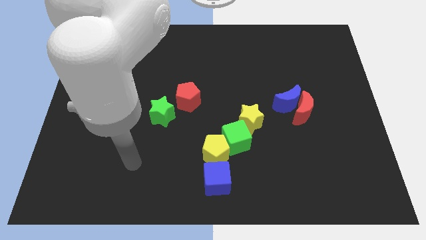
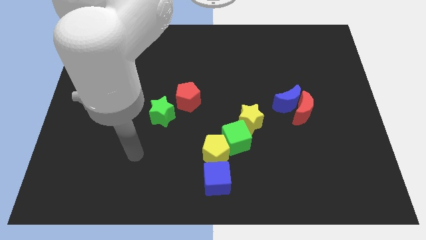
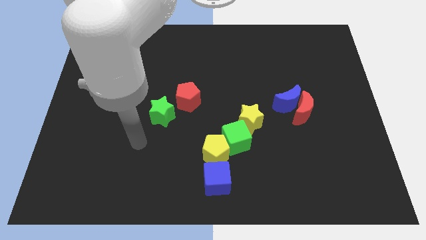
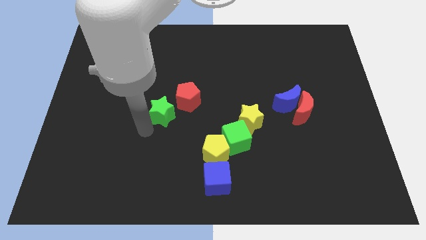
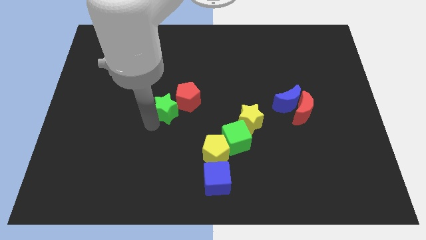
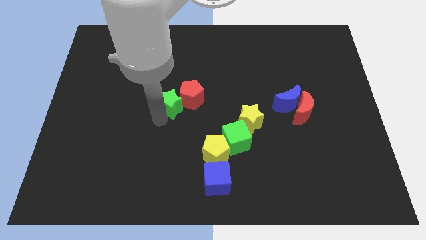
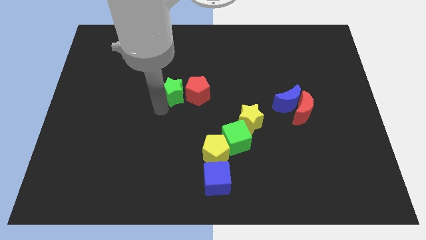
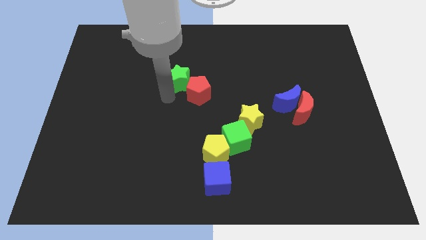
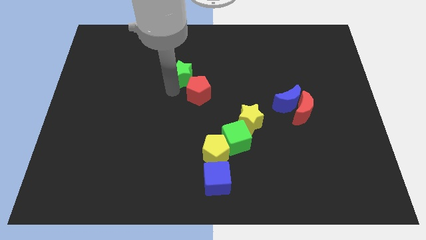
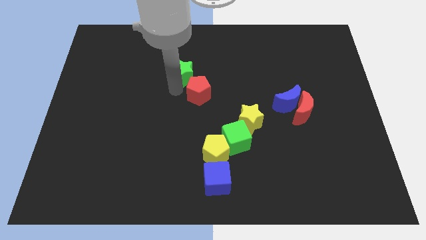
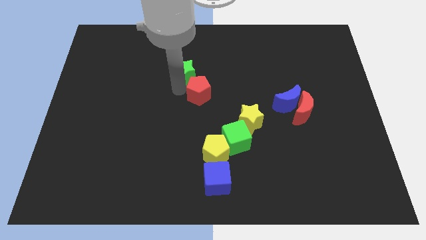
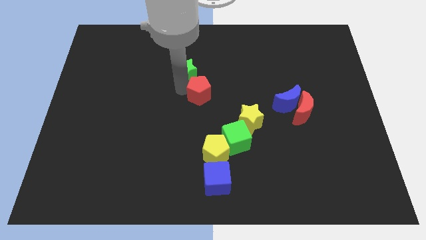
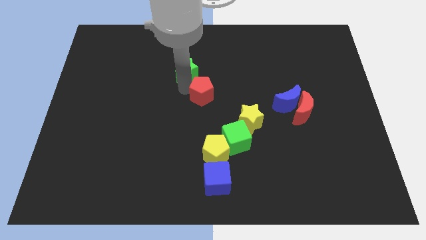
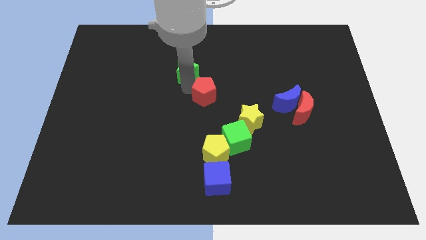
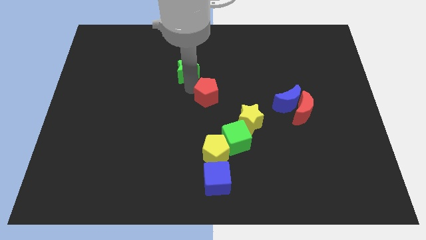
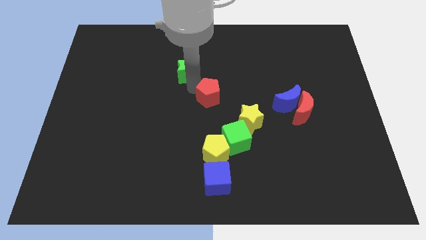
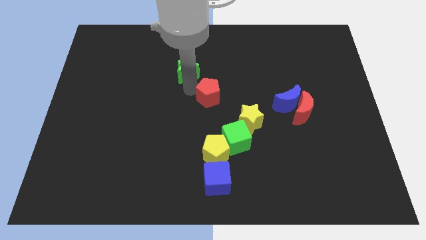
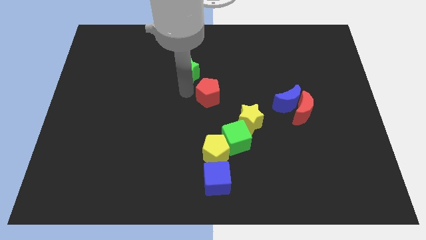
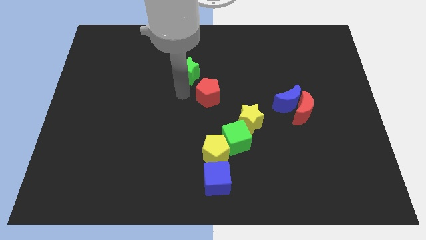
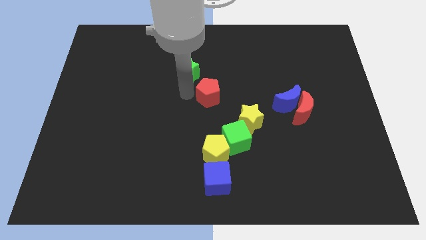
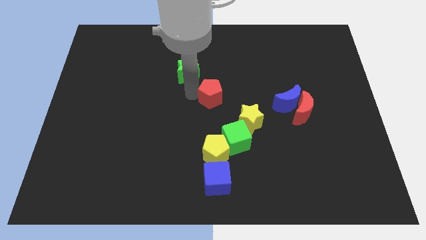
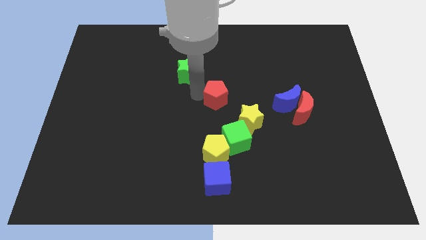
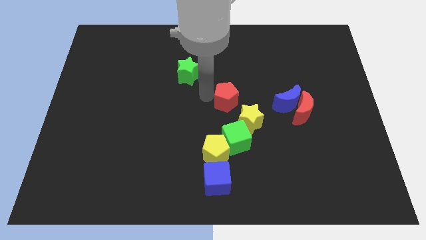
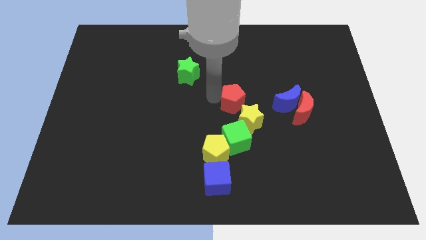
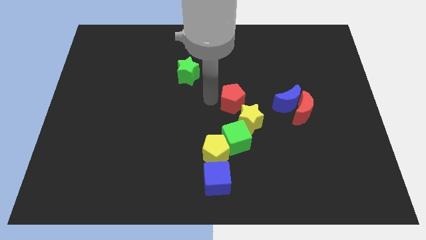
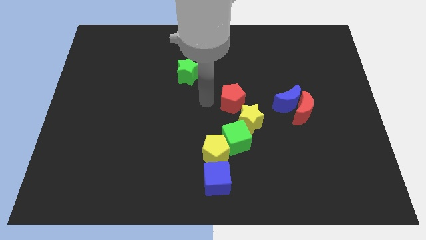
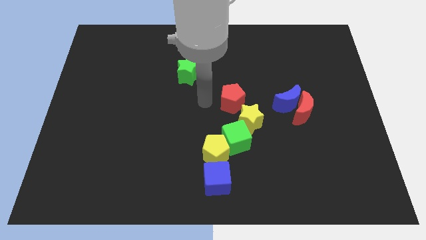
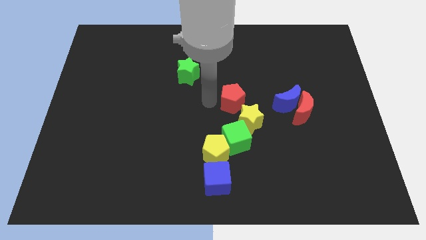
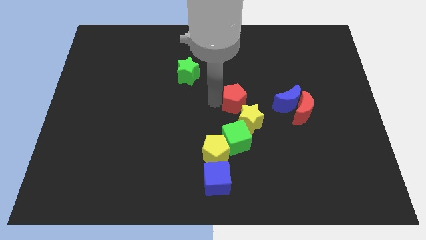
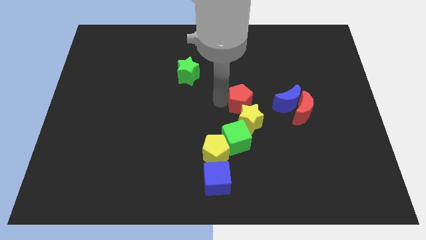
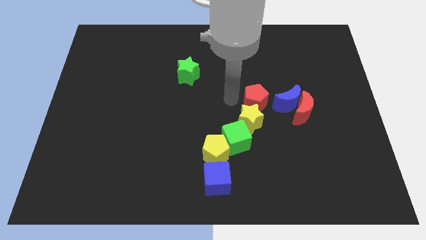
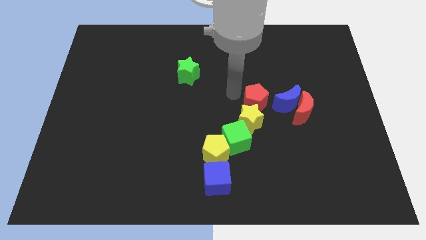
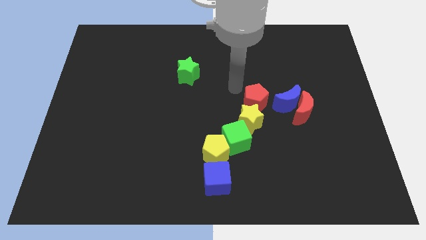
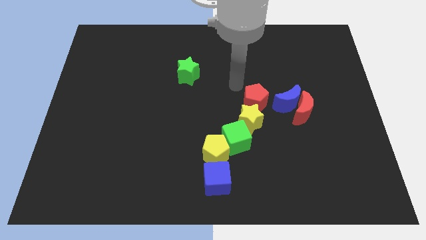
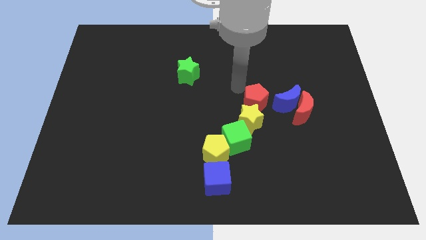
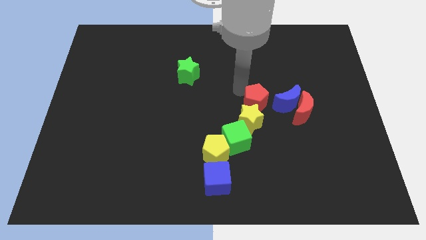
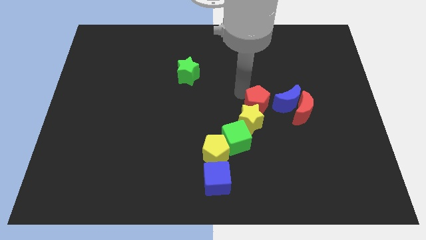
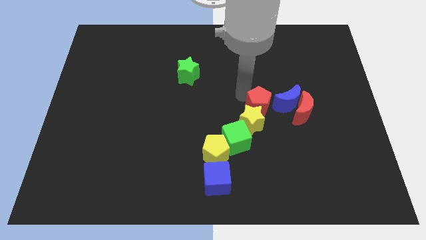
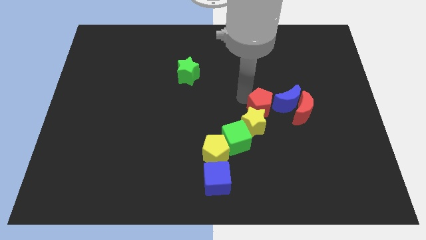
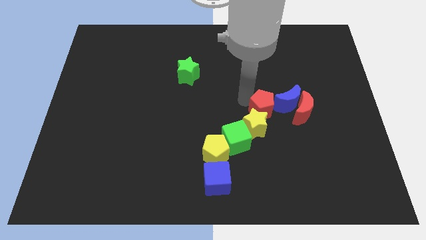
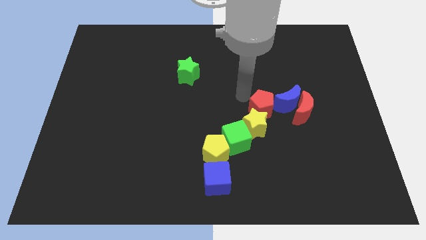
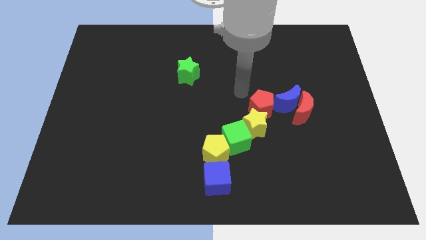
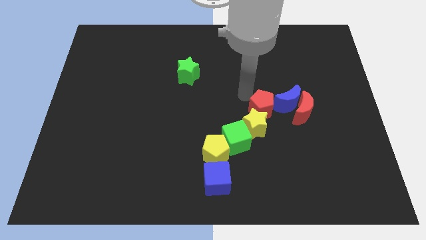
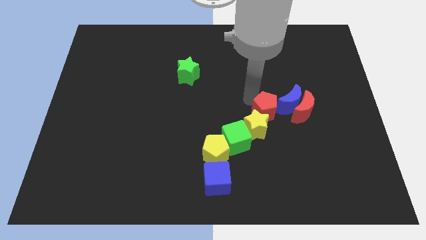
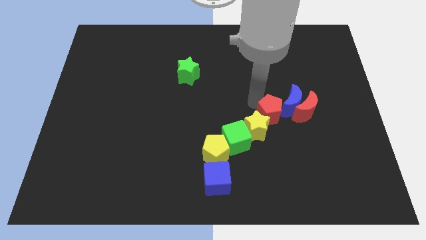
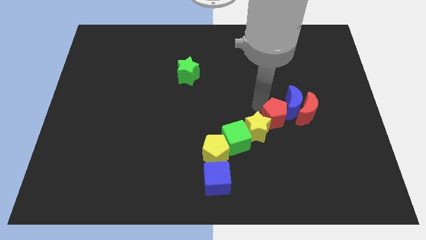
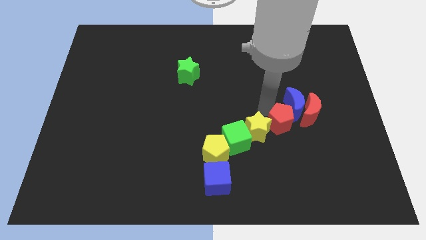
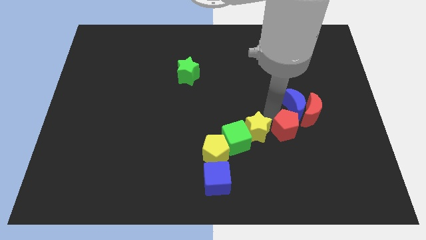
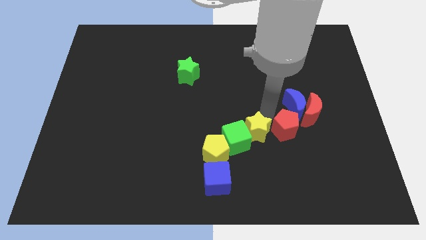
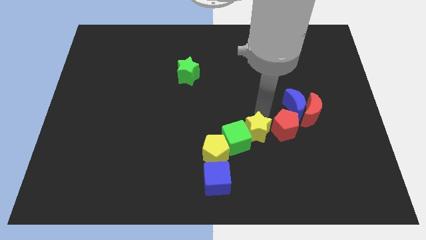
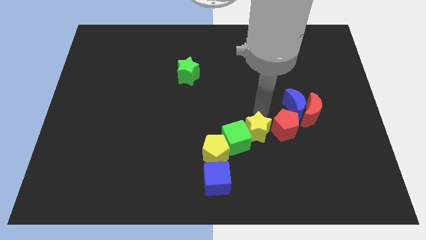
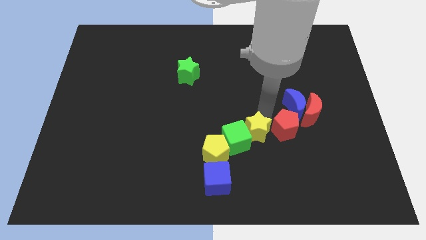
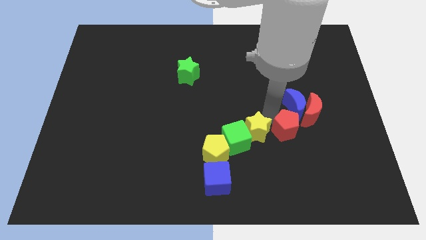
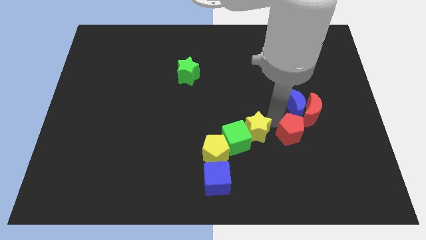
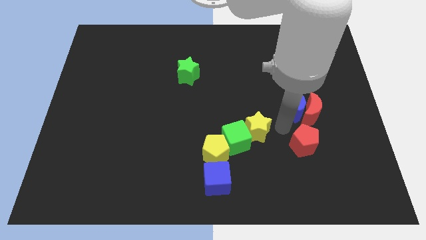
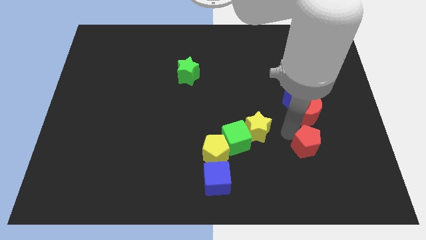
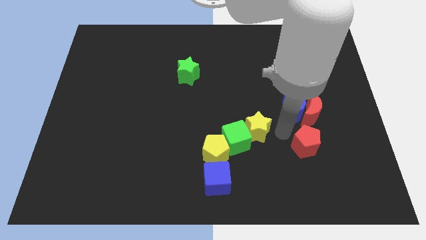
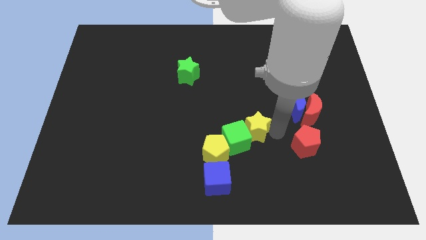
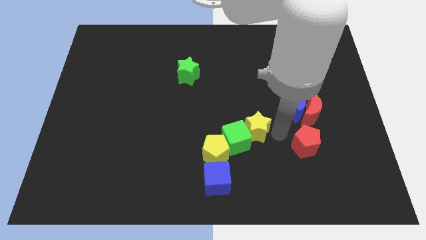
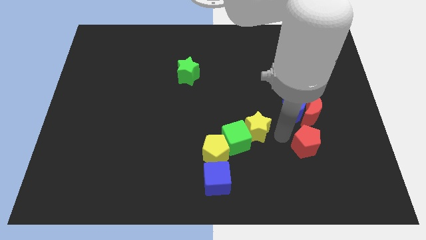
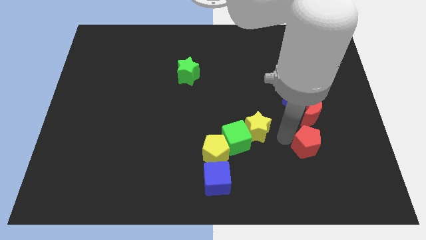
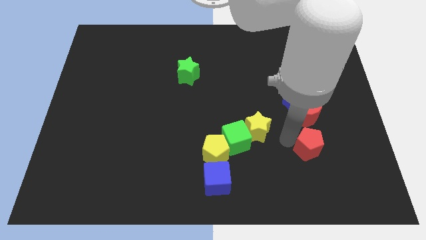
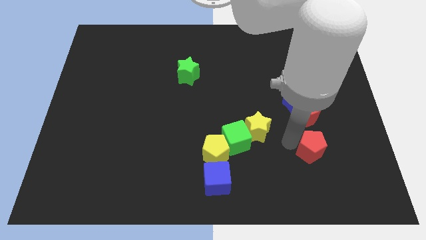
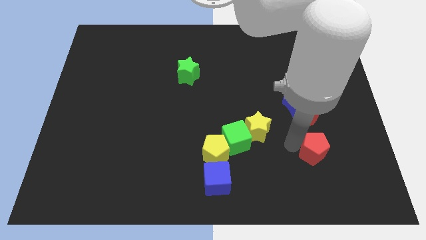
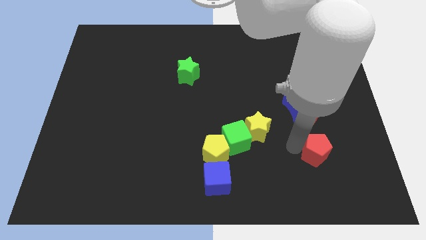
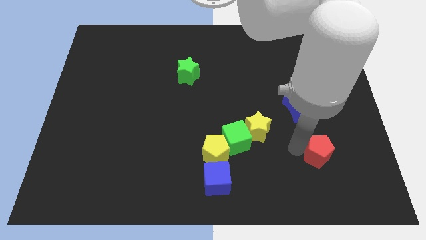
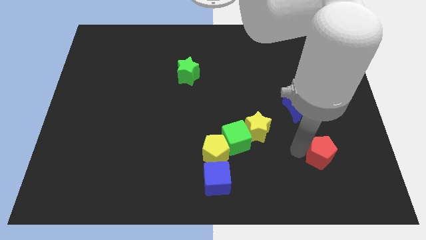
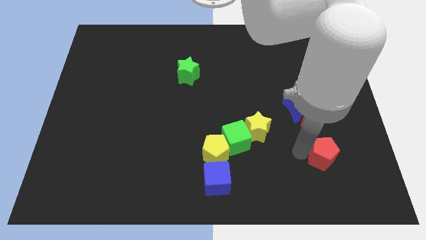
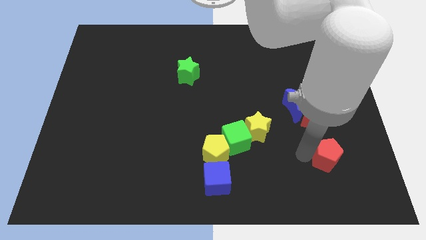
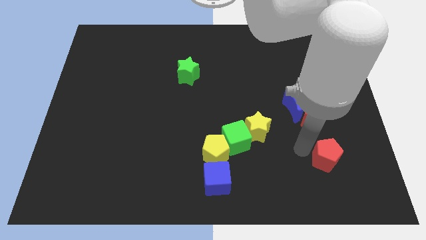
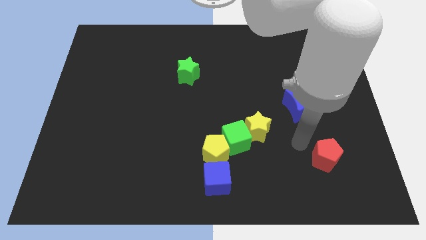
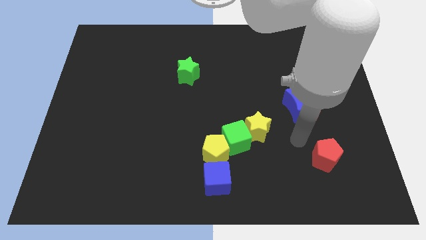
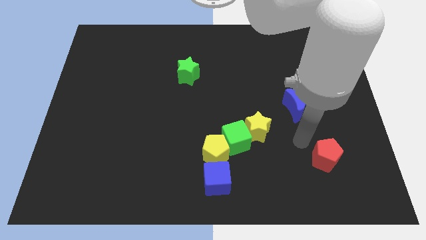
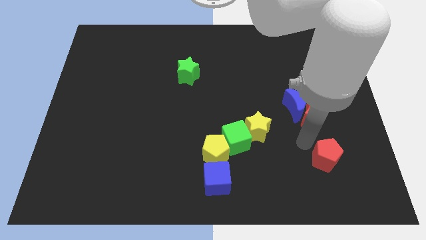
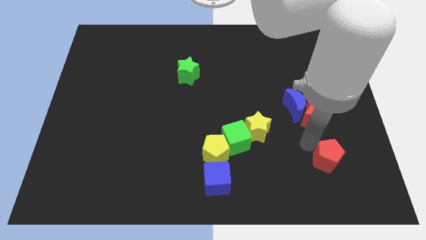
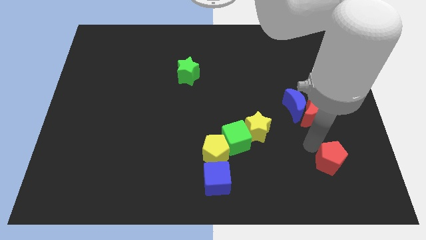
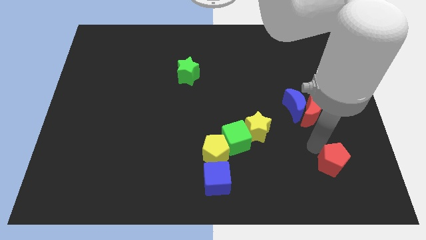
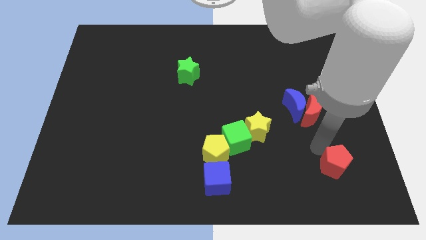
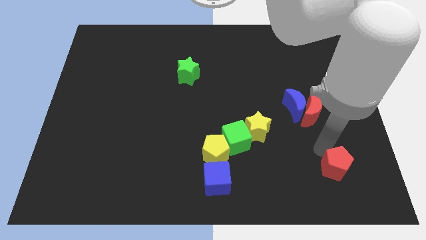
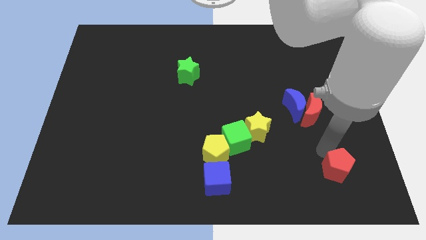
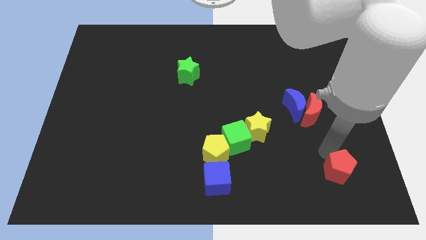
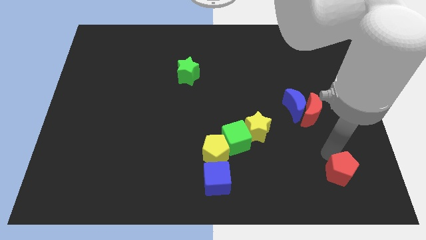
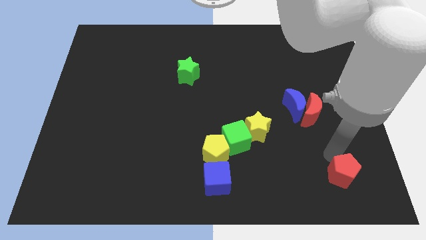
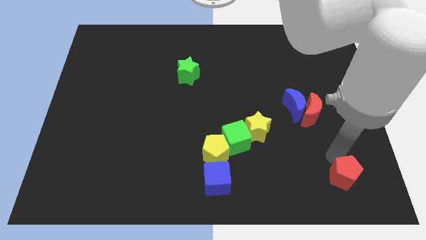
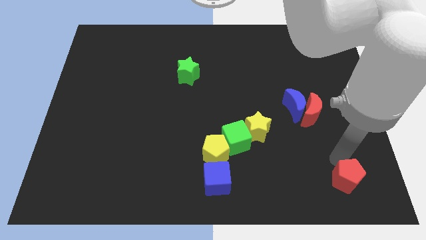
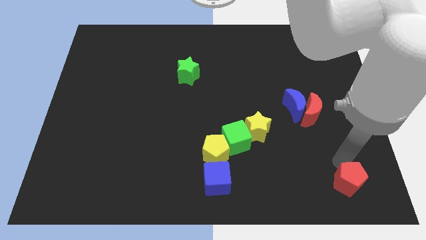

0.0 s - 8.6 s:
move the red pentagon to the bottom right corner
